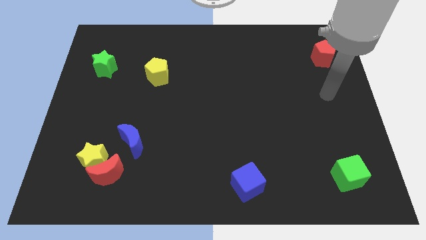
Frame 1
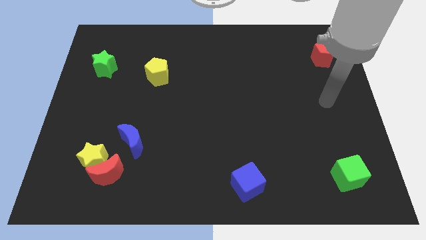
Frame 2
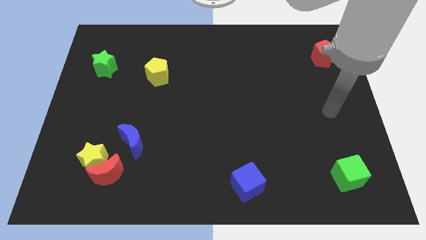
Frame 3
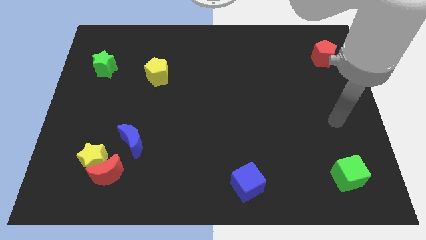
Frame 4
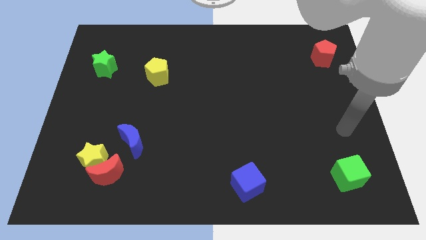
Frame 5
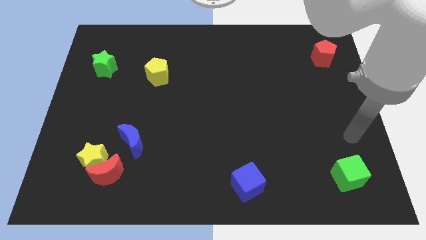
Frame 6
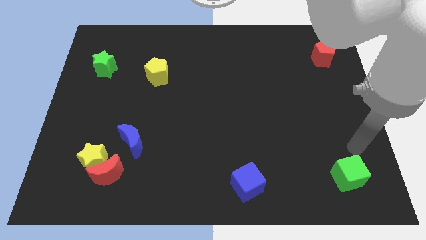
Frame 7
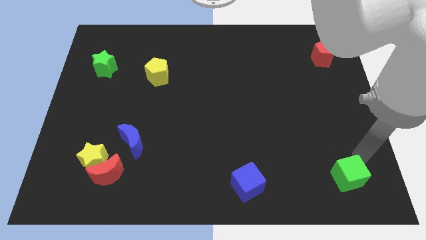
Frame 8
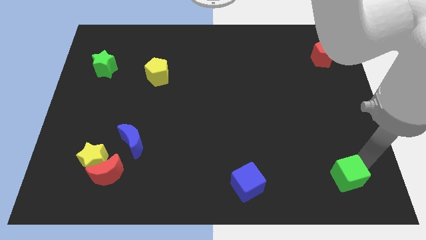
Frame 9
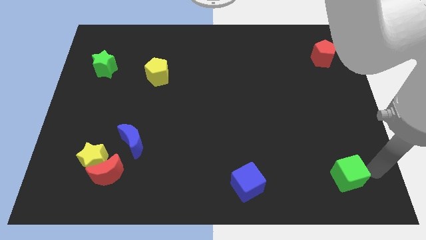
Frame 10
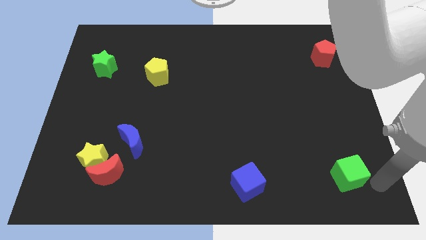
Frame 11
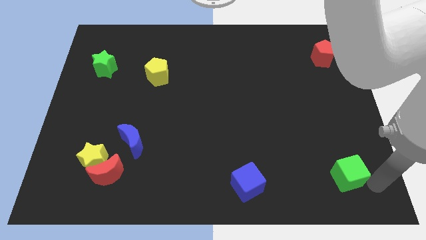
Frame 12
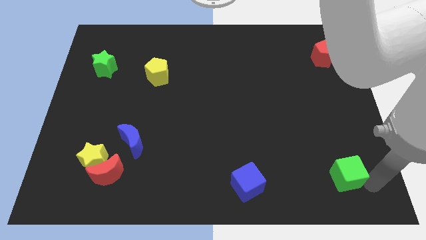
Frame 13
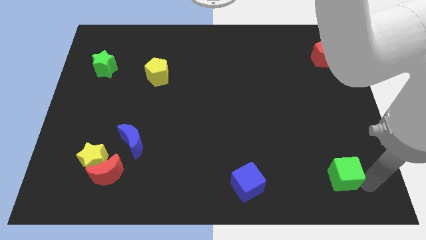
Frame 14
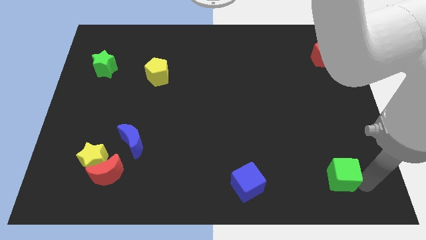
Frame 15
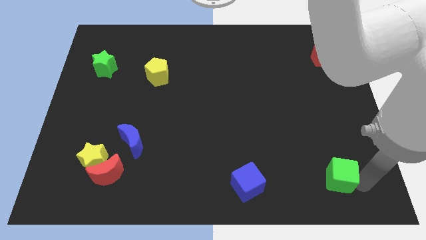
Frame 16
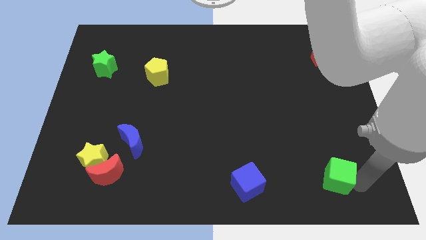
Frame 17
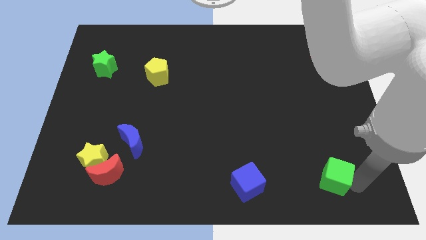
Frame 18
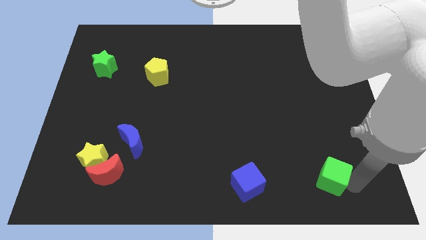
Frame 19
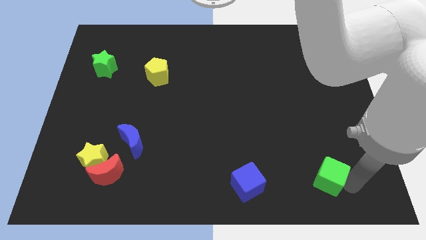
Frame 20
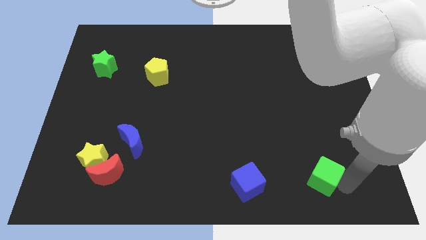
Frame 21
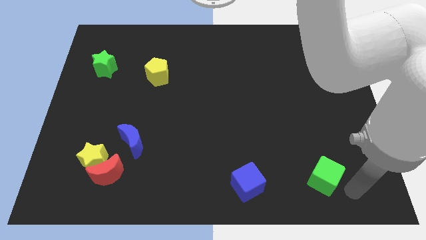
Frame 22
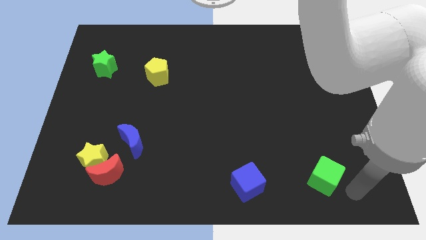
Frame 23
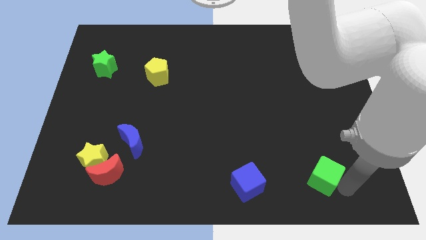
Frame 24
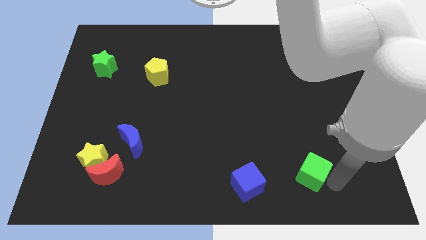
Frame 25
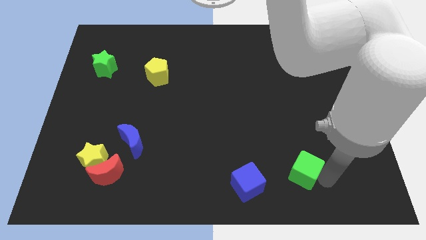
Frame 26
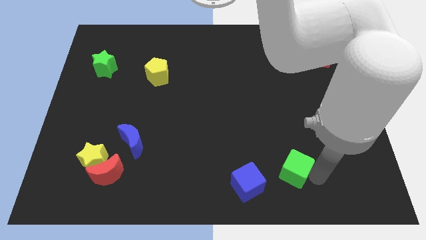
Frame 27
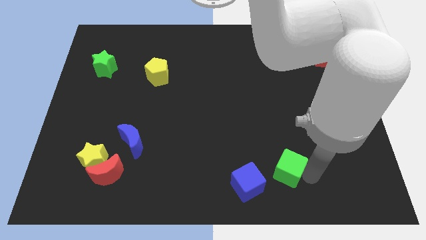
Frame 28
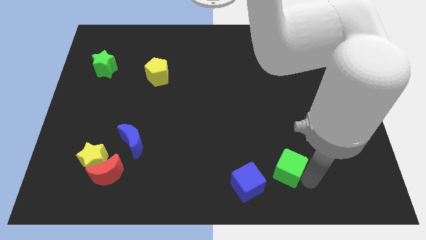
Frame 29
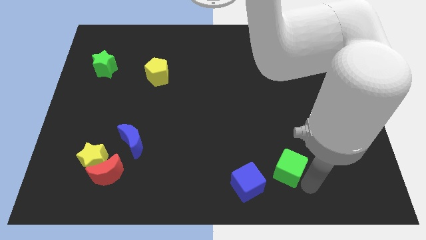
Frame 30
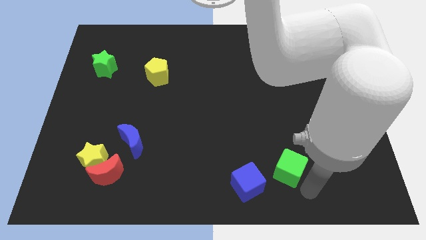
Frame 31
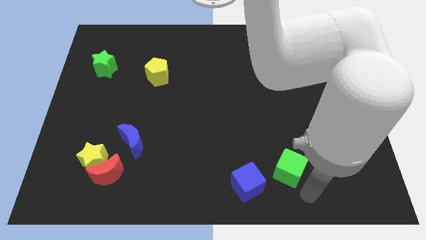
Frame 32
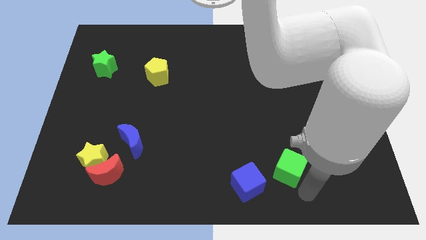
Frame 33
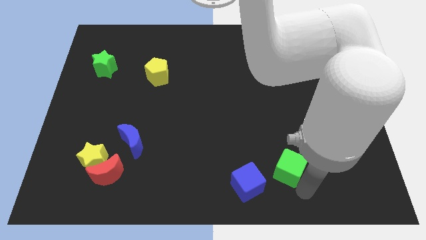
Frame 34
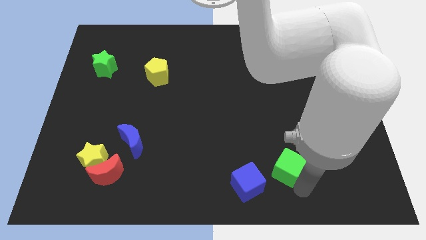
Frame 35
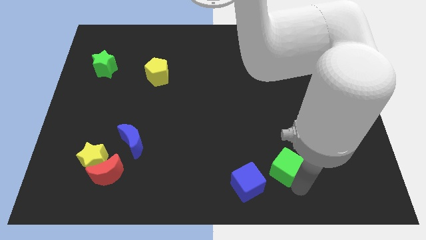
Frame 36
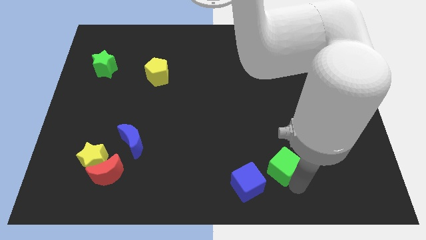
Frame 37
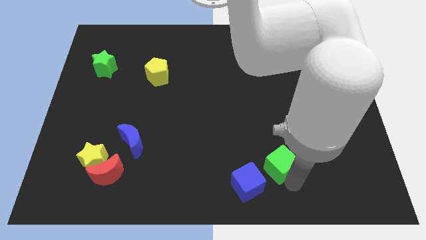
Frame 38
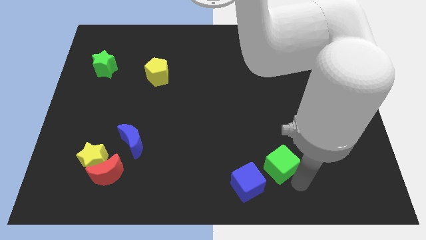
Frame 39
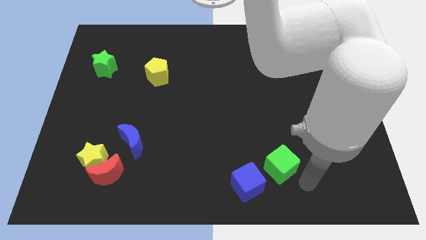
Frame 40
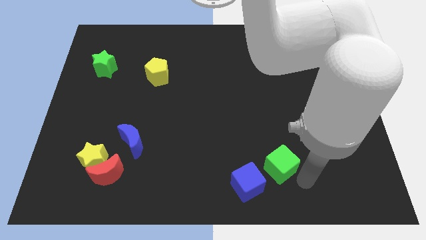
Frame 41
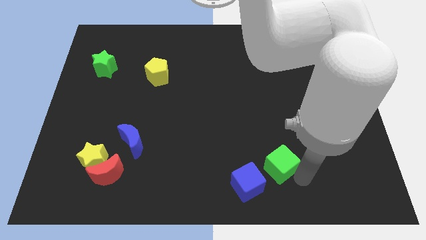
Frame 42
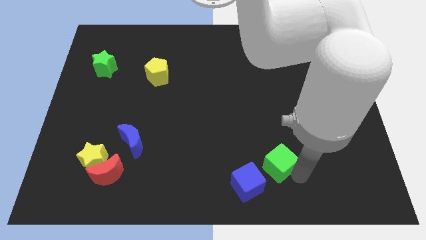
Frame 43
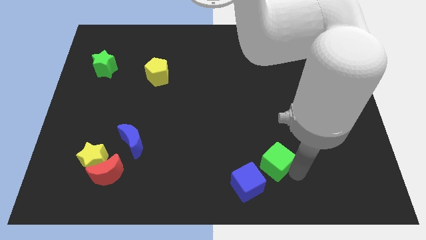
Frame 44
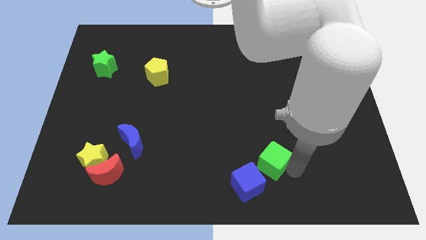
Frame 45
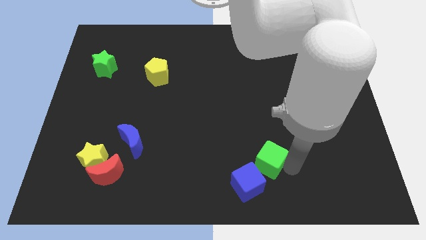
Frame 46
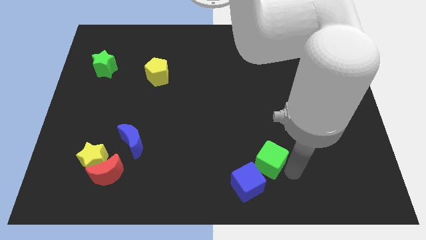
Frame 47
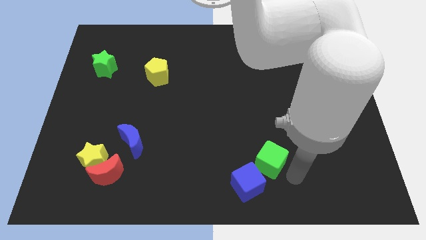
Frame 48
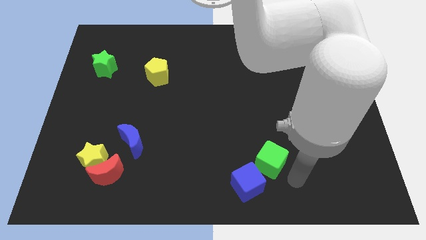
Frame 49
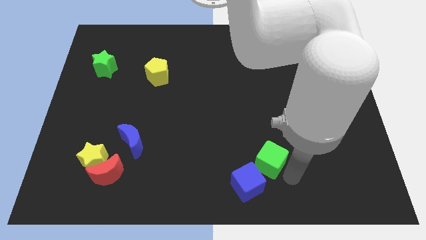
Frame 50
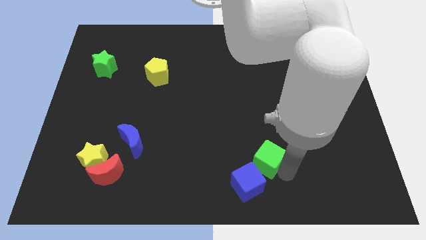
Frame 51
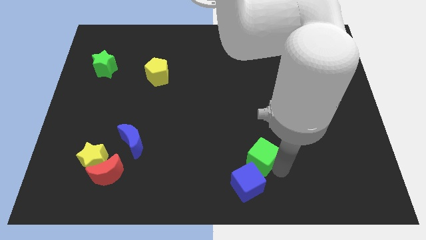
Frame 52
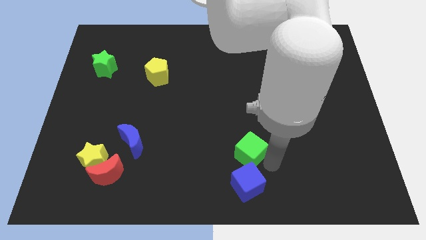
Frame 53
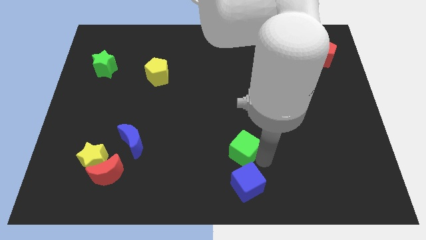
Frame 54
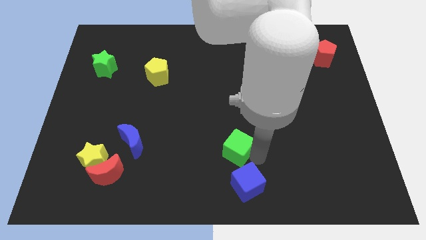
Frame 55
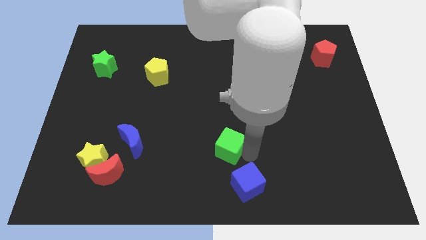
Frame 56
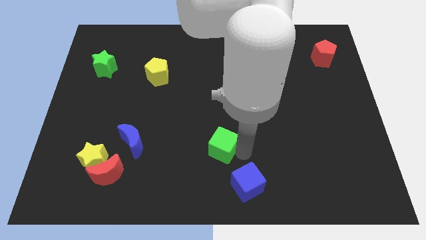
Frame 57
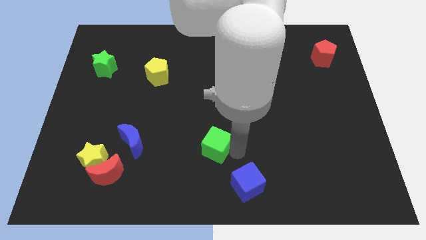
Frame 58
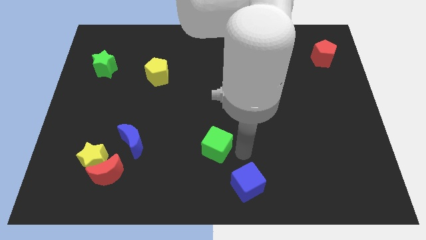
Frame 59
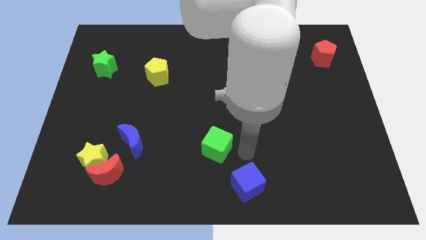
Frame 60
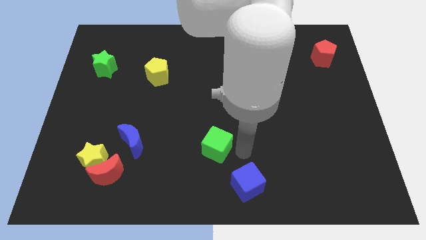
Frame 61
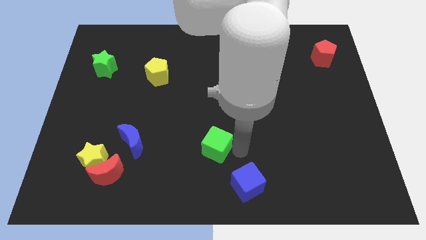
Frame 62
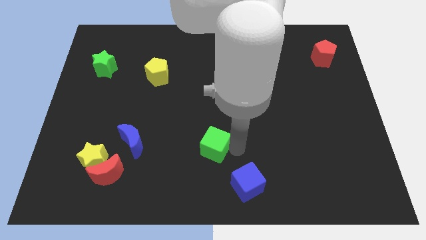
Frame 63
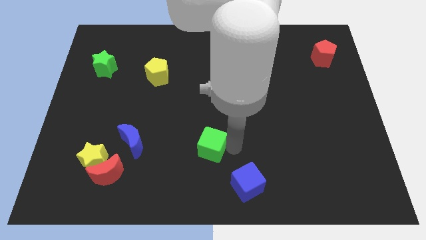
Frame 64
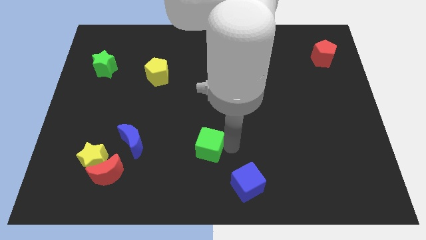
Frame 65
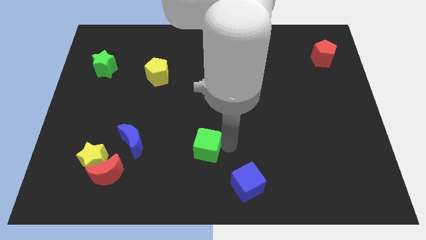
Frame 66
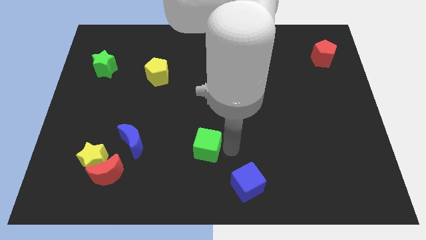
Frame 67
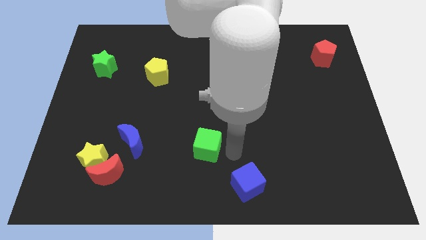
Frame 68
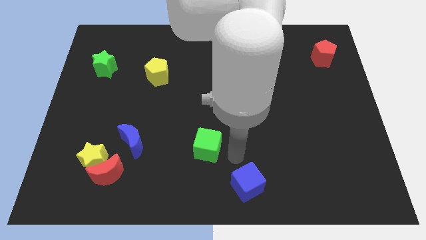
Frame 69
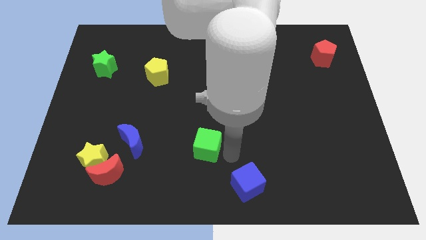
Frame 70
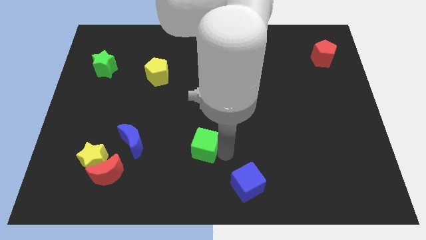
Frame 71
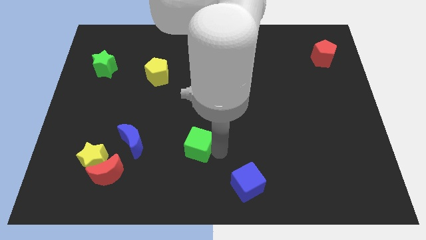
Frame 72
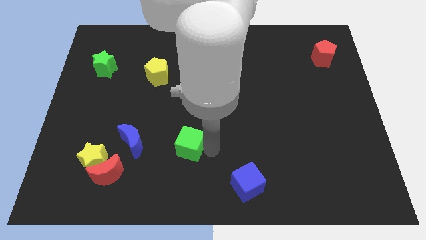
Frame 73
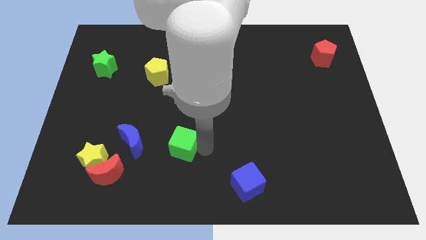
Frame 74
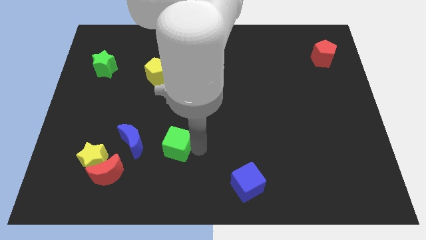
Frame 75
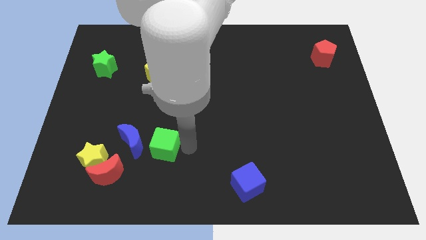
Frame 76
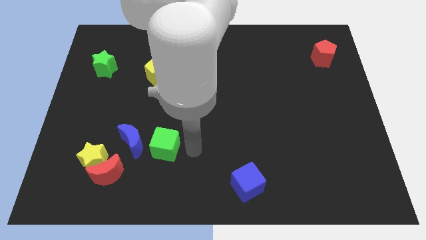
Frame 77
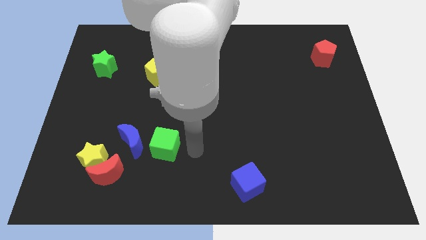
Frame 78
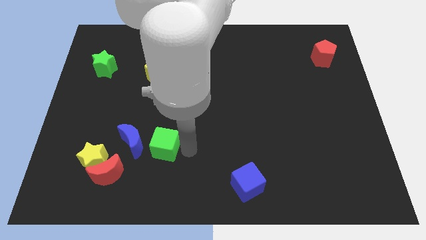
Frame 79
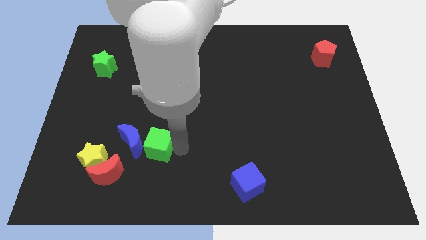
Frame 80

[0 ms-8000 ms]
slide the green cube to the blue moon

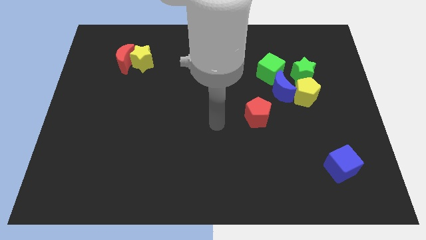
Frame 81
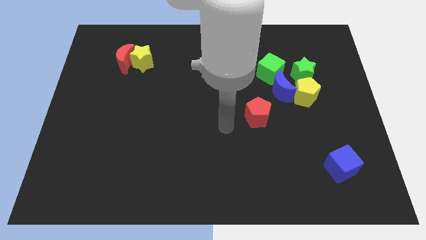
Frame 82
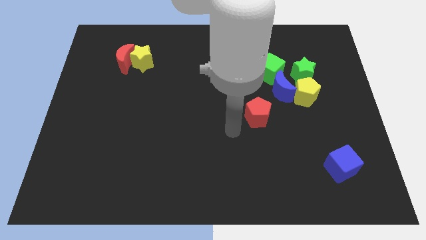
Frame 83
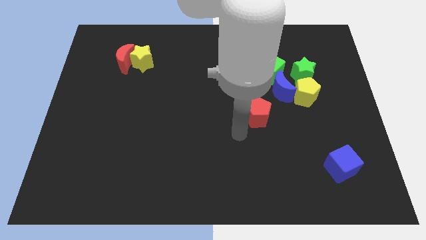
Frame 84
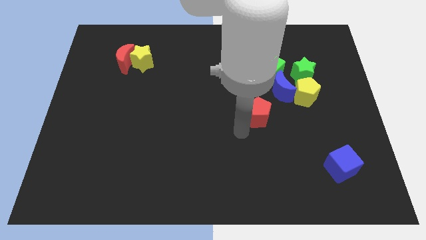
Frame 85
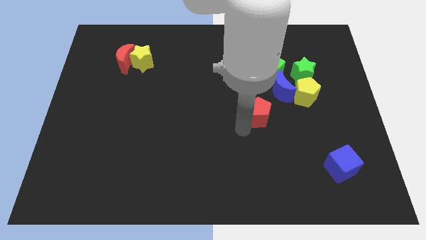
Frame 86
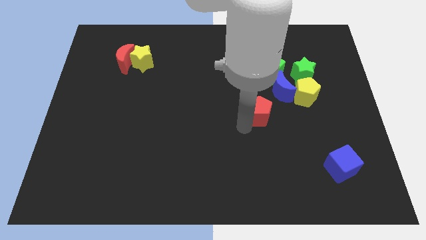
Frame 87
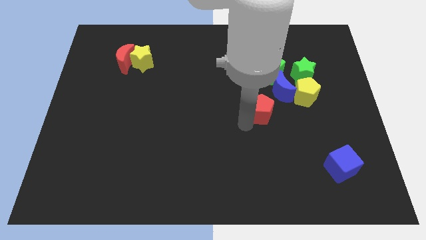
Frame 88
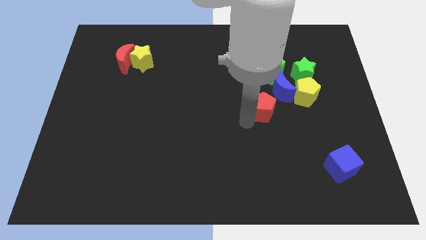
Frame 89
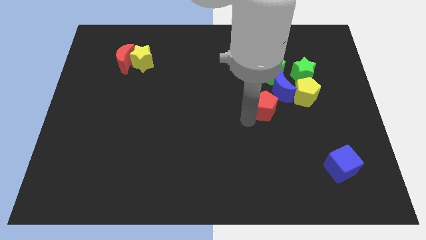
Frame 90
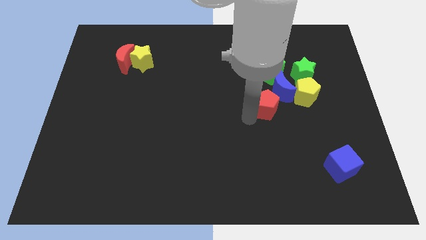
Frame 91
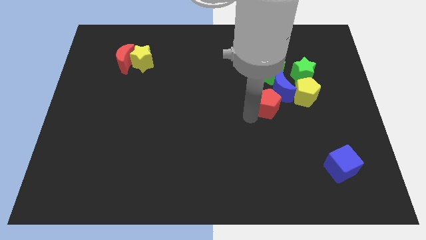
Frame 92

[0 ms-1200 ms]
push the red pentagon towards the blue moon
